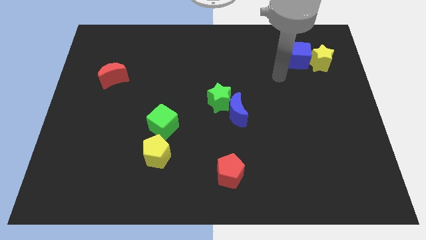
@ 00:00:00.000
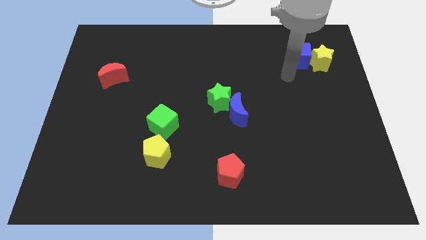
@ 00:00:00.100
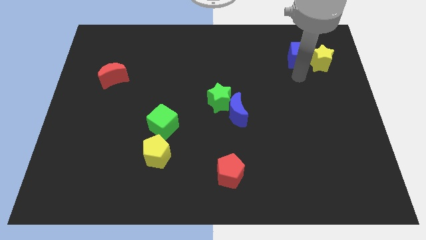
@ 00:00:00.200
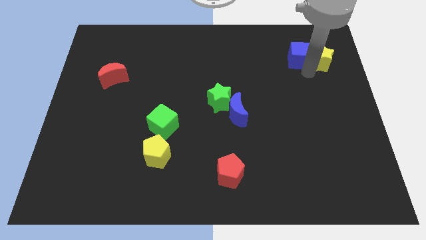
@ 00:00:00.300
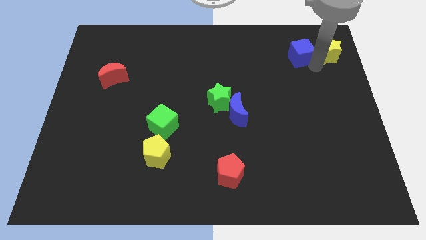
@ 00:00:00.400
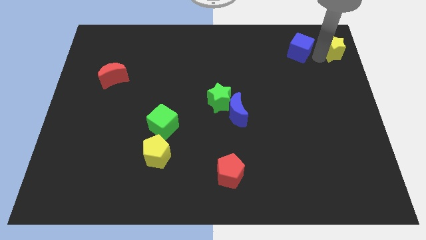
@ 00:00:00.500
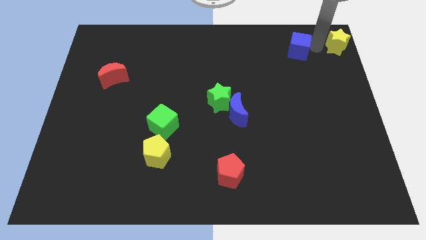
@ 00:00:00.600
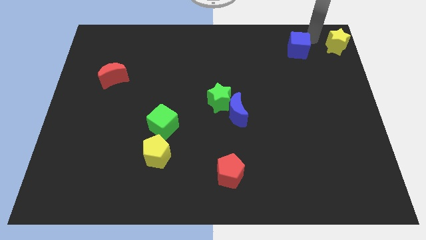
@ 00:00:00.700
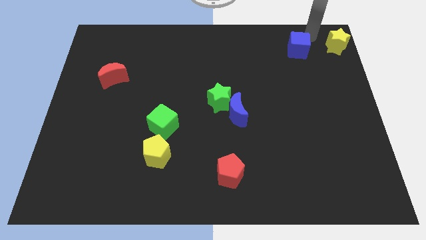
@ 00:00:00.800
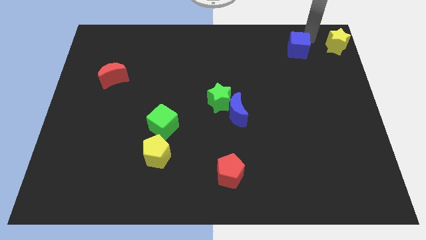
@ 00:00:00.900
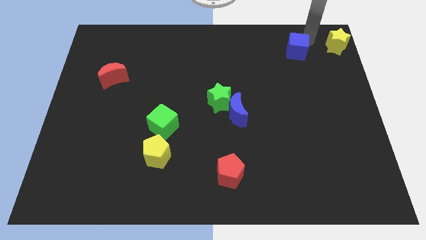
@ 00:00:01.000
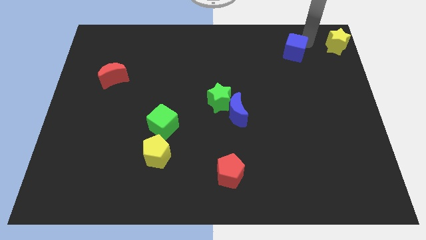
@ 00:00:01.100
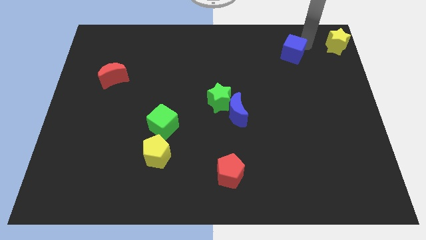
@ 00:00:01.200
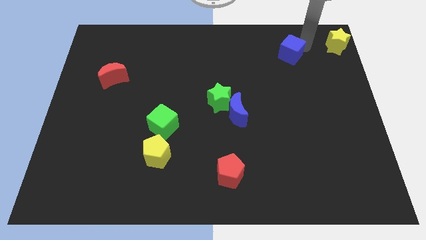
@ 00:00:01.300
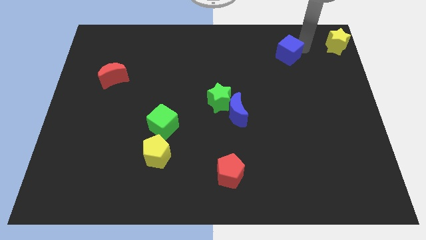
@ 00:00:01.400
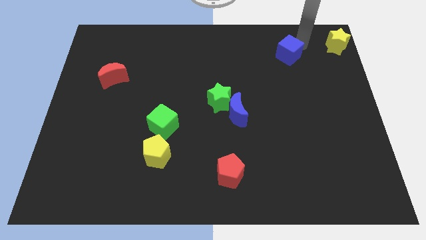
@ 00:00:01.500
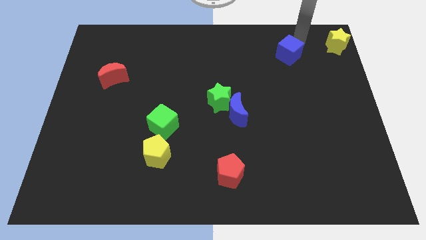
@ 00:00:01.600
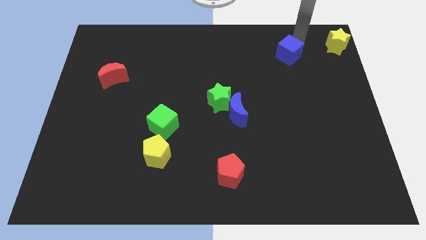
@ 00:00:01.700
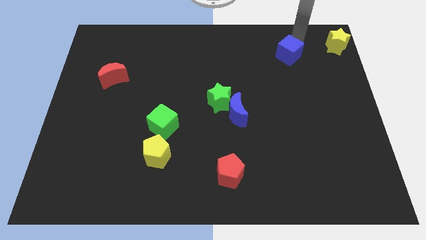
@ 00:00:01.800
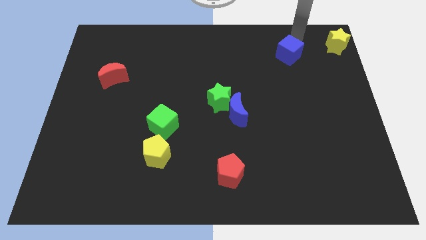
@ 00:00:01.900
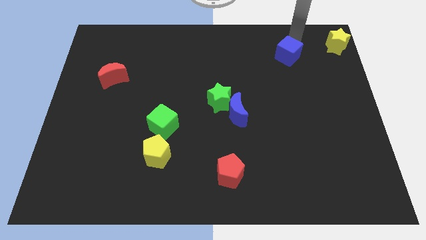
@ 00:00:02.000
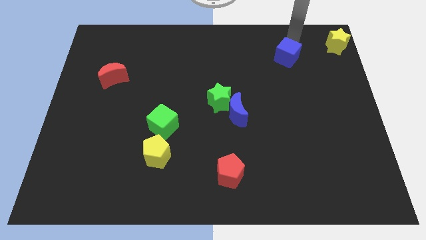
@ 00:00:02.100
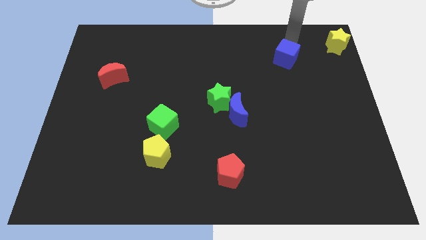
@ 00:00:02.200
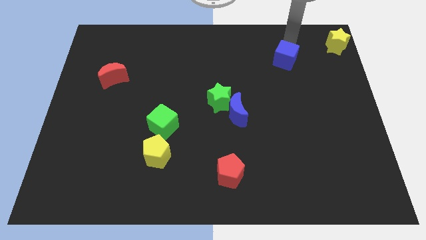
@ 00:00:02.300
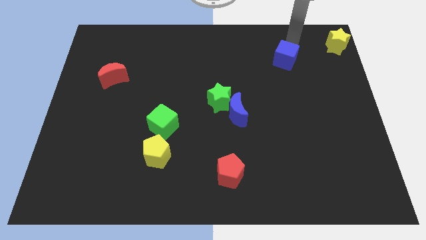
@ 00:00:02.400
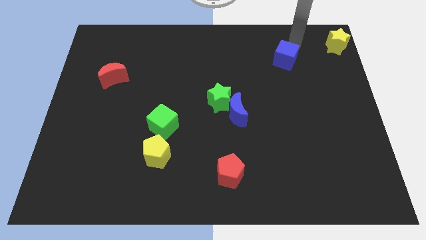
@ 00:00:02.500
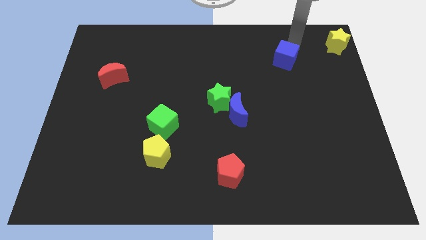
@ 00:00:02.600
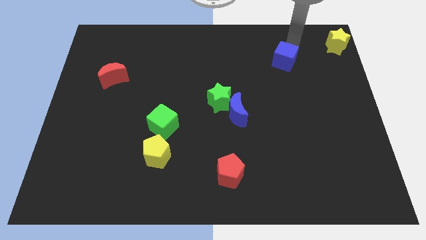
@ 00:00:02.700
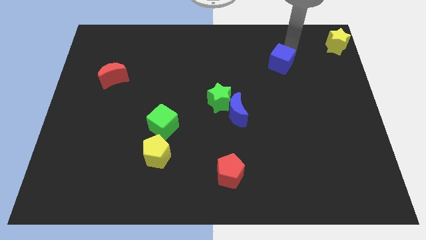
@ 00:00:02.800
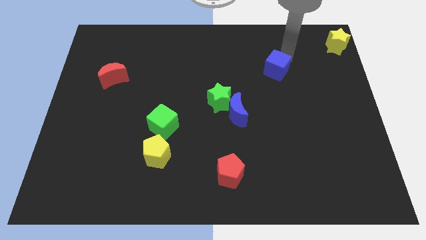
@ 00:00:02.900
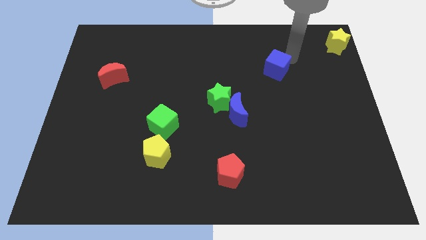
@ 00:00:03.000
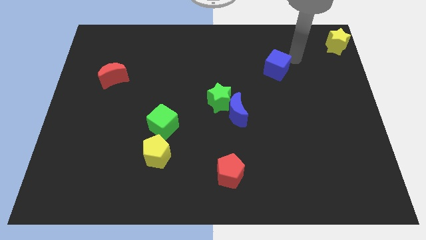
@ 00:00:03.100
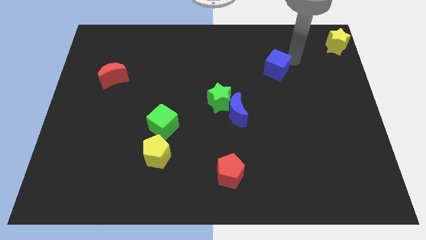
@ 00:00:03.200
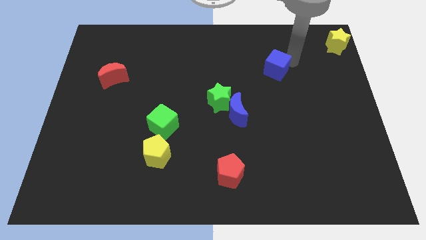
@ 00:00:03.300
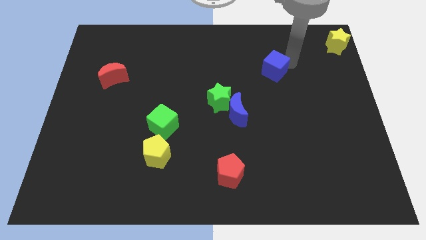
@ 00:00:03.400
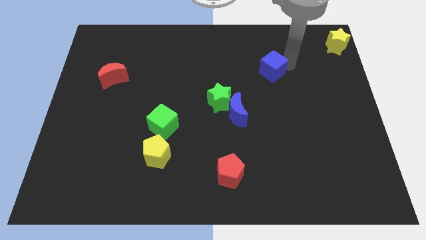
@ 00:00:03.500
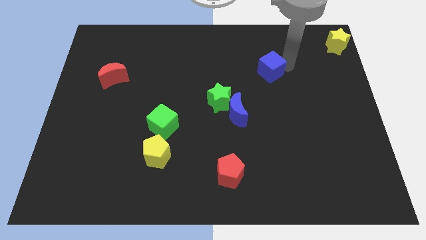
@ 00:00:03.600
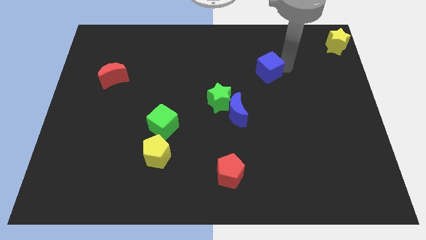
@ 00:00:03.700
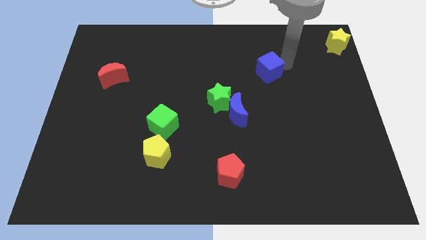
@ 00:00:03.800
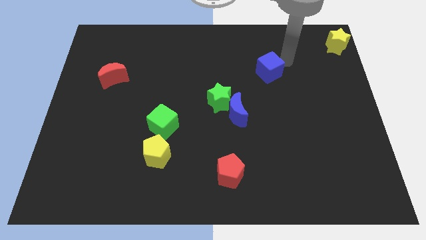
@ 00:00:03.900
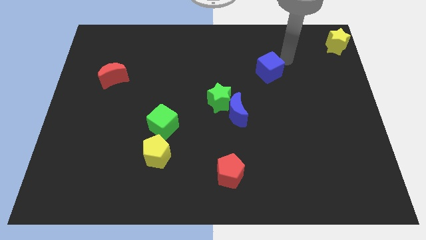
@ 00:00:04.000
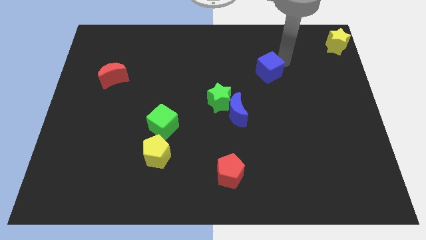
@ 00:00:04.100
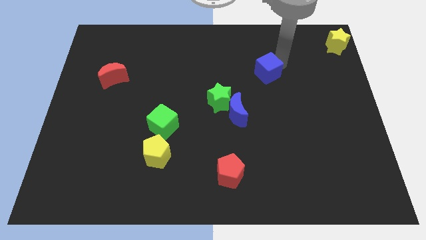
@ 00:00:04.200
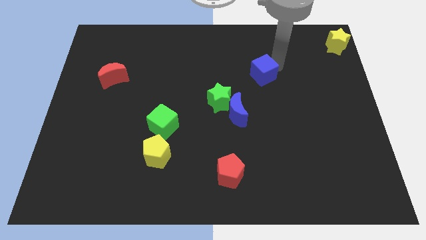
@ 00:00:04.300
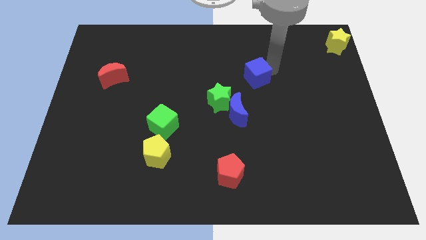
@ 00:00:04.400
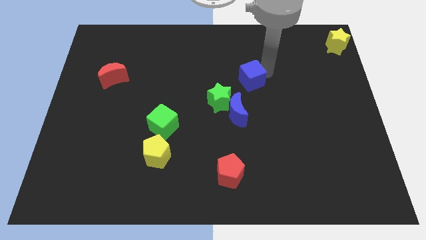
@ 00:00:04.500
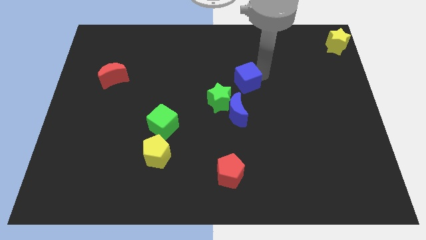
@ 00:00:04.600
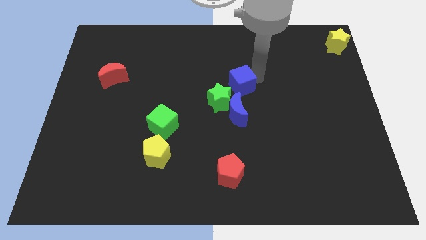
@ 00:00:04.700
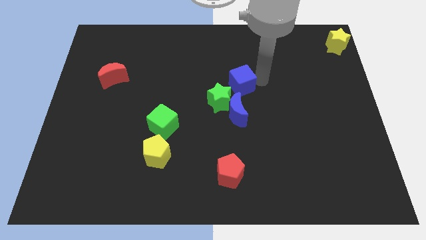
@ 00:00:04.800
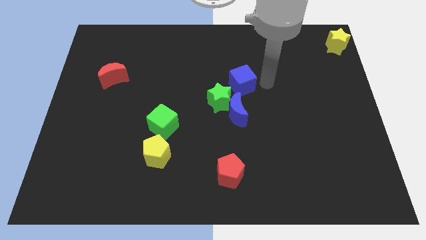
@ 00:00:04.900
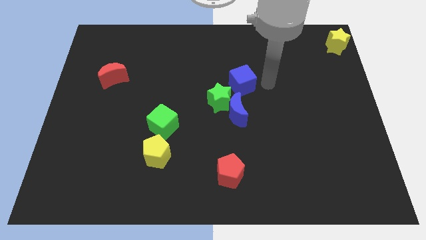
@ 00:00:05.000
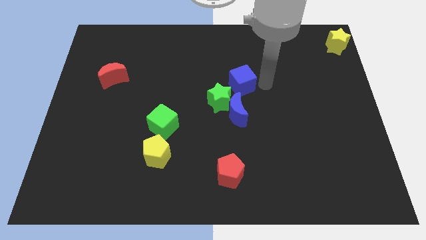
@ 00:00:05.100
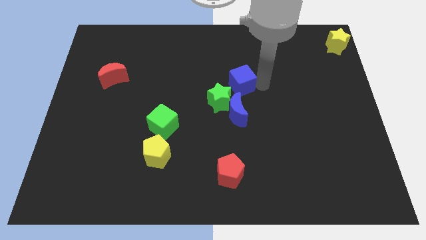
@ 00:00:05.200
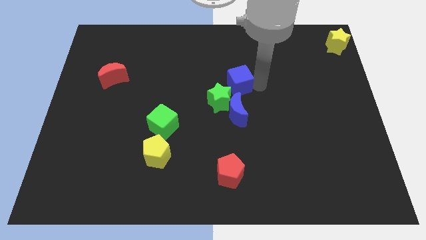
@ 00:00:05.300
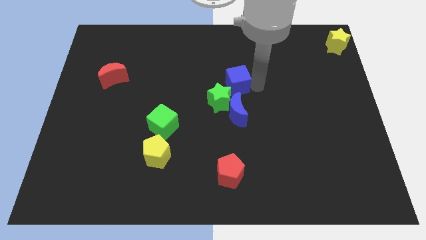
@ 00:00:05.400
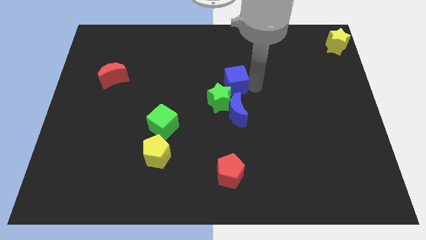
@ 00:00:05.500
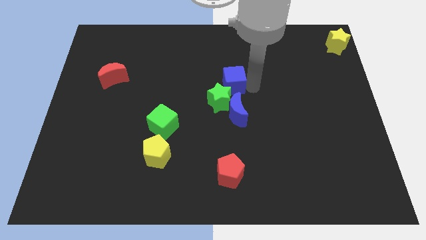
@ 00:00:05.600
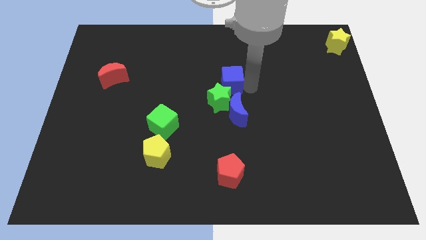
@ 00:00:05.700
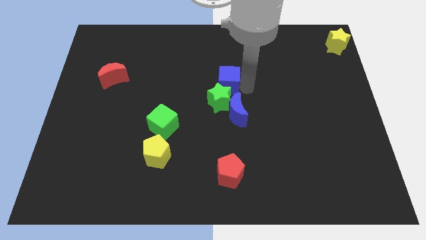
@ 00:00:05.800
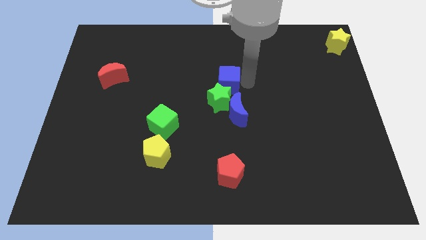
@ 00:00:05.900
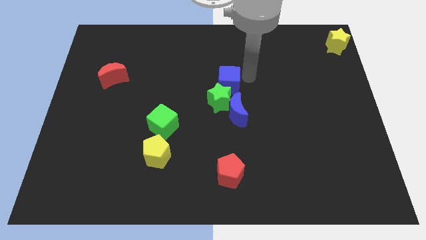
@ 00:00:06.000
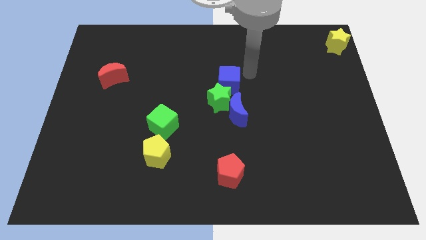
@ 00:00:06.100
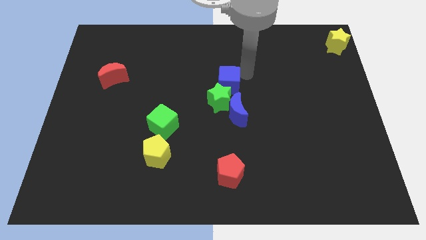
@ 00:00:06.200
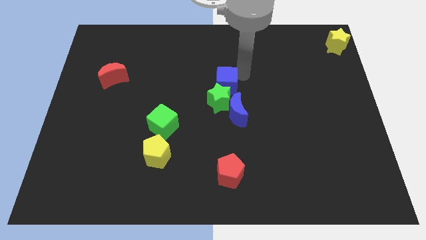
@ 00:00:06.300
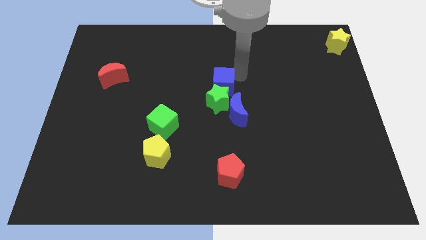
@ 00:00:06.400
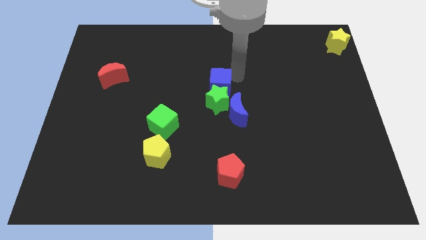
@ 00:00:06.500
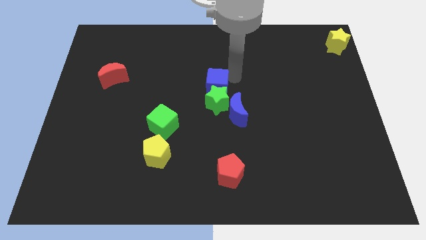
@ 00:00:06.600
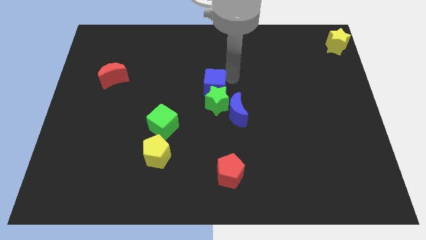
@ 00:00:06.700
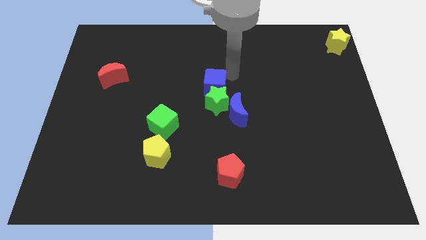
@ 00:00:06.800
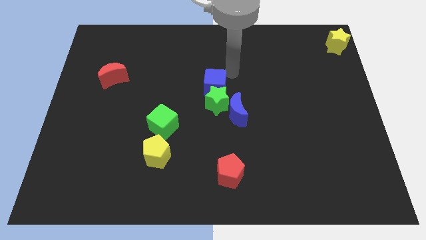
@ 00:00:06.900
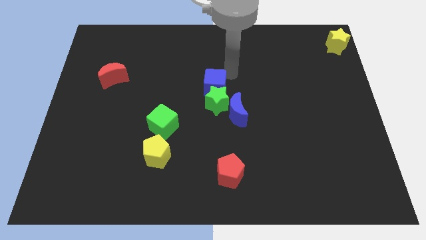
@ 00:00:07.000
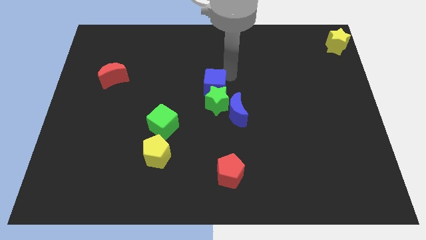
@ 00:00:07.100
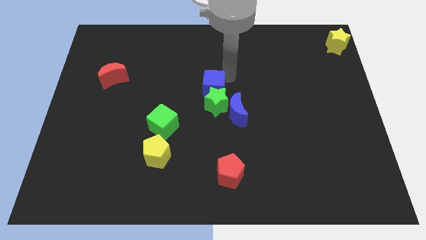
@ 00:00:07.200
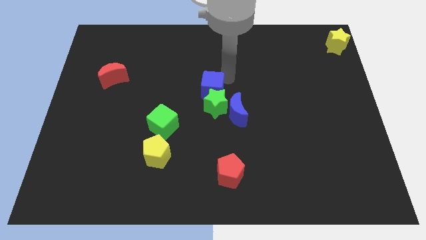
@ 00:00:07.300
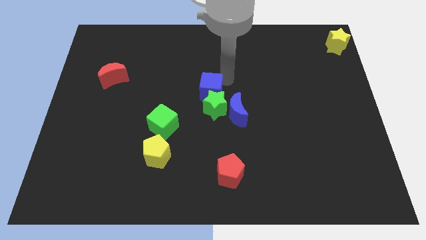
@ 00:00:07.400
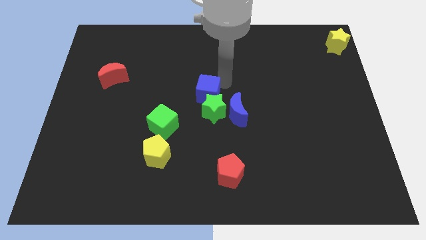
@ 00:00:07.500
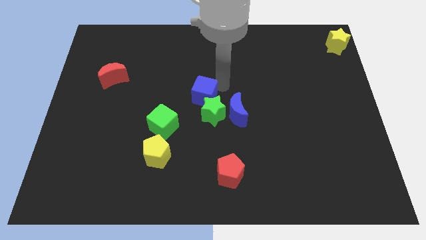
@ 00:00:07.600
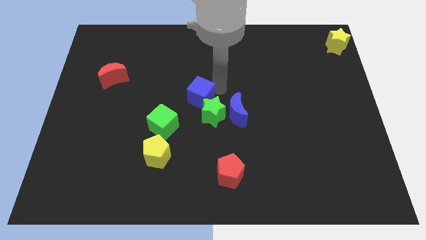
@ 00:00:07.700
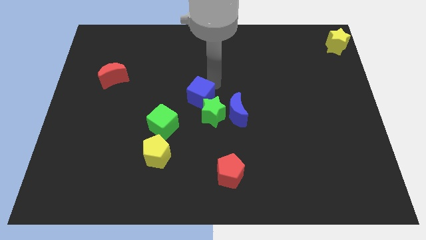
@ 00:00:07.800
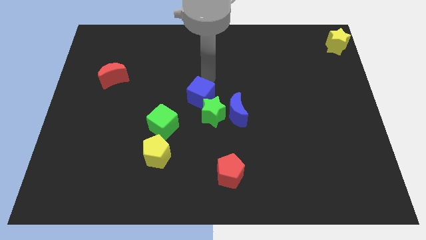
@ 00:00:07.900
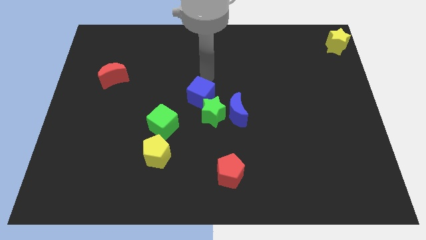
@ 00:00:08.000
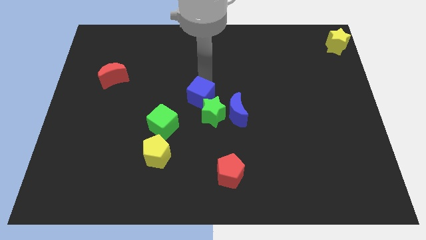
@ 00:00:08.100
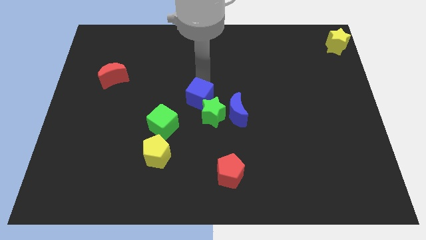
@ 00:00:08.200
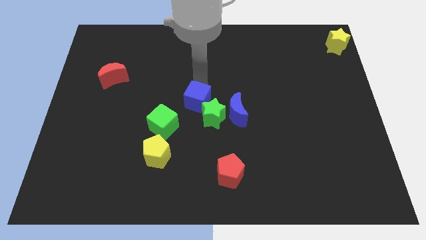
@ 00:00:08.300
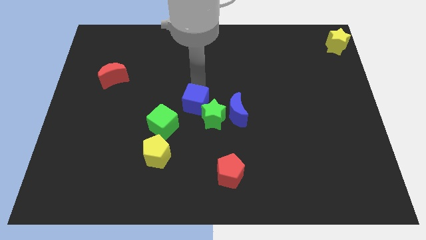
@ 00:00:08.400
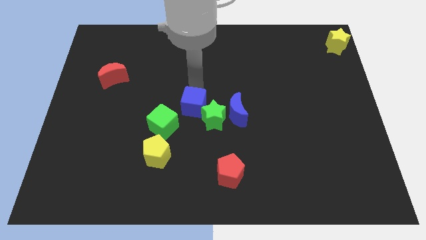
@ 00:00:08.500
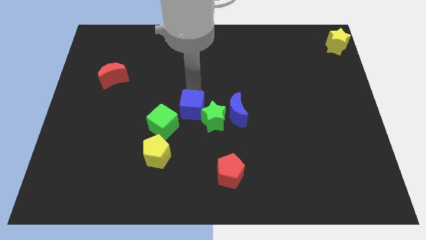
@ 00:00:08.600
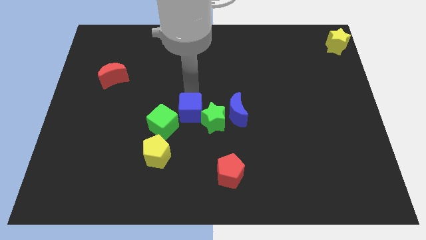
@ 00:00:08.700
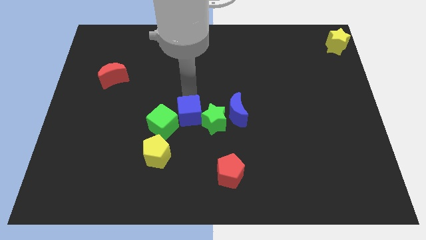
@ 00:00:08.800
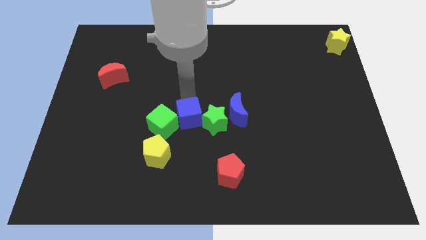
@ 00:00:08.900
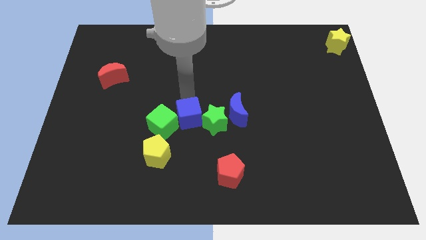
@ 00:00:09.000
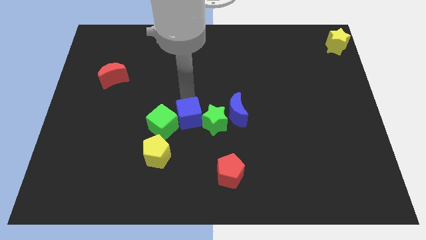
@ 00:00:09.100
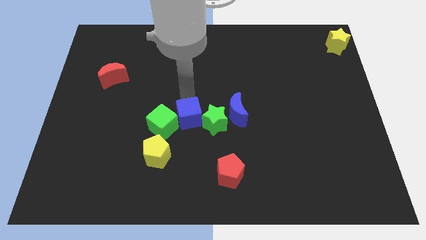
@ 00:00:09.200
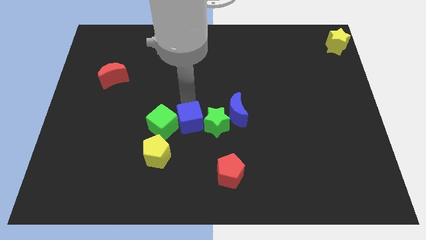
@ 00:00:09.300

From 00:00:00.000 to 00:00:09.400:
push the blue cube to the bottom left side of the green star
